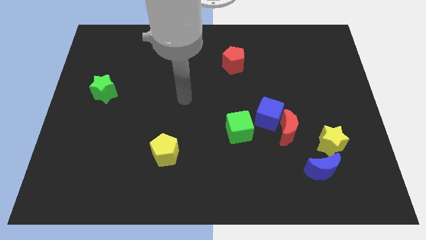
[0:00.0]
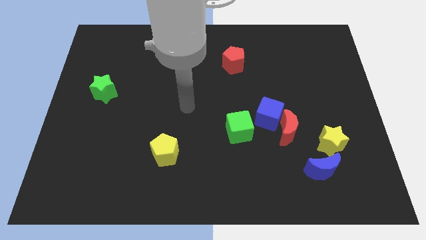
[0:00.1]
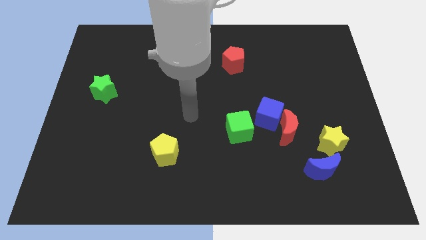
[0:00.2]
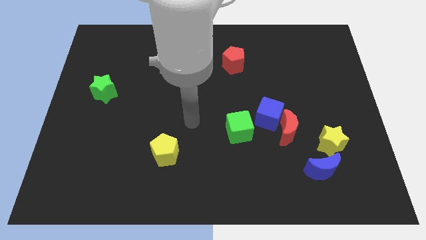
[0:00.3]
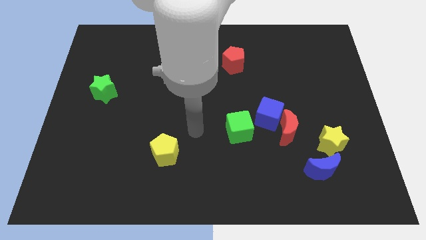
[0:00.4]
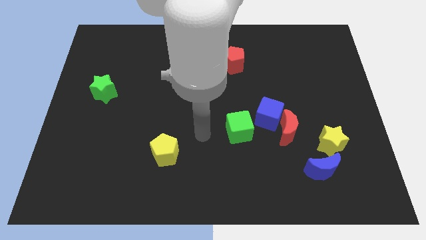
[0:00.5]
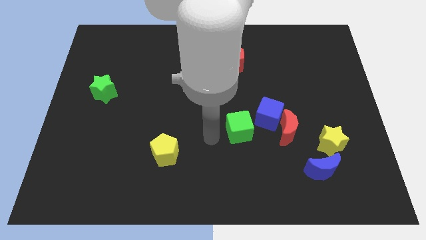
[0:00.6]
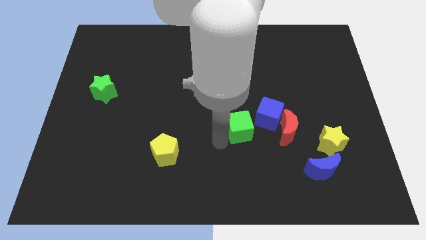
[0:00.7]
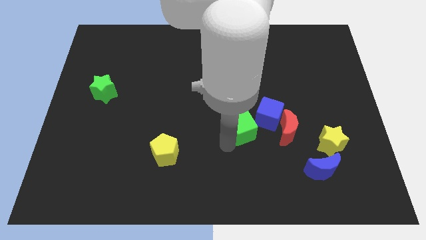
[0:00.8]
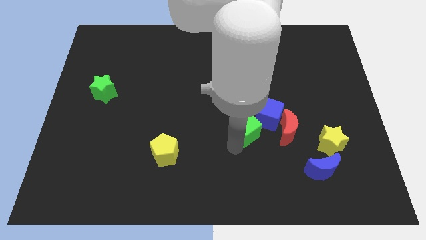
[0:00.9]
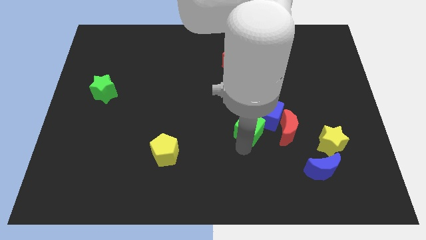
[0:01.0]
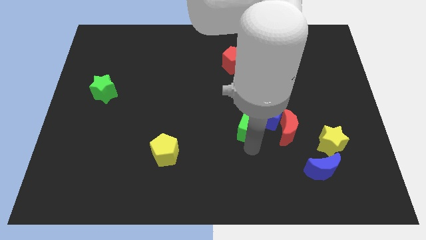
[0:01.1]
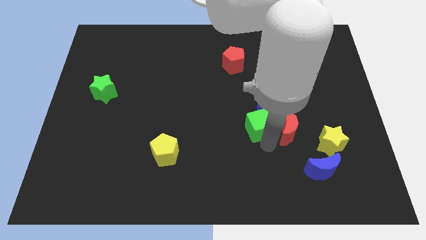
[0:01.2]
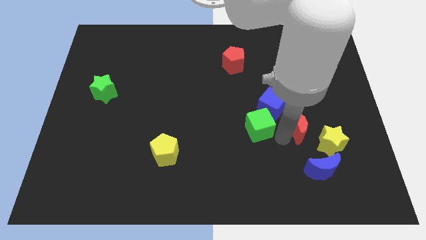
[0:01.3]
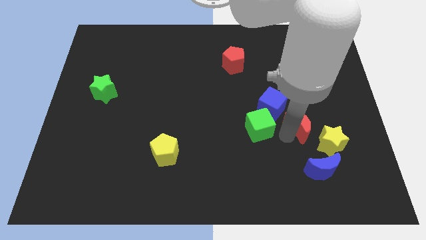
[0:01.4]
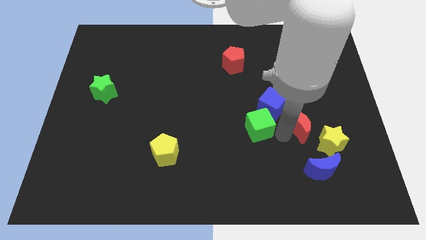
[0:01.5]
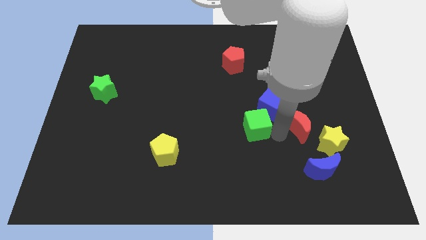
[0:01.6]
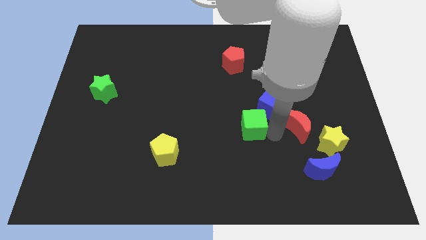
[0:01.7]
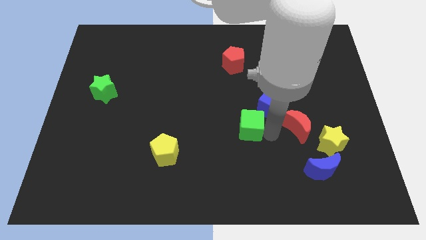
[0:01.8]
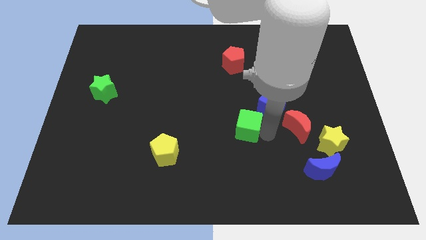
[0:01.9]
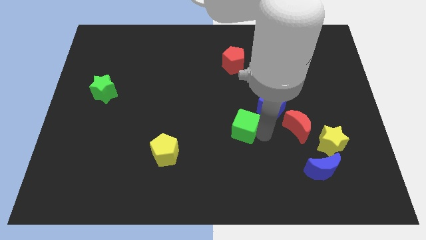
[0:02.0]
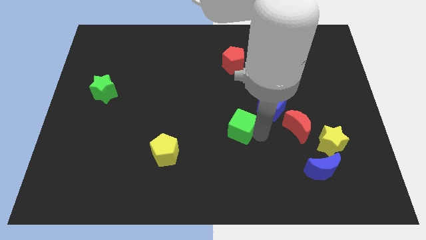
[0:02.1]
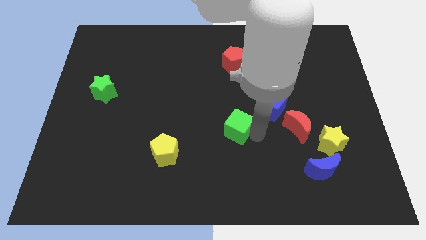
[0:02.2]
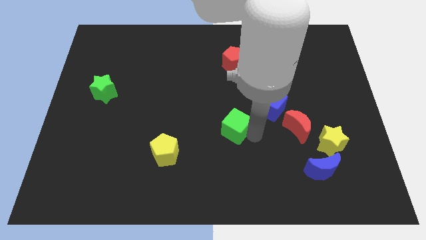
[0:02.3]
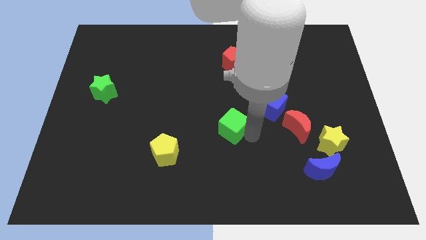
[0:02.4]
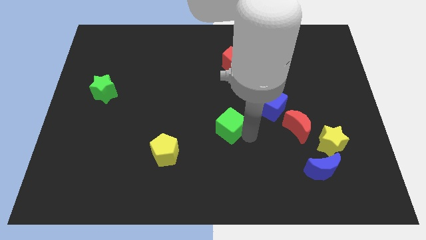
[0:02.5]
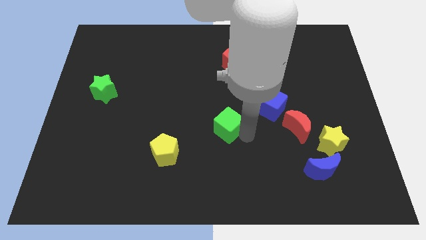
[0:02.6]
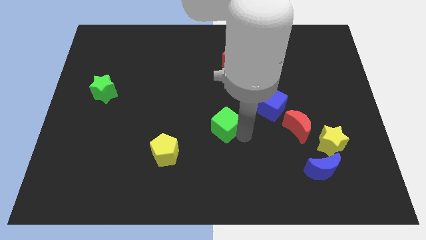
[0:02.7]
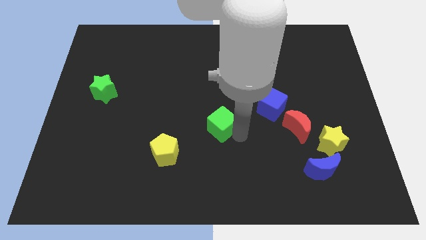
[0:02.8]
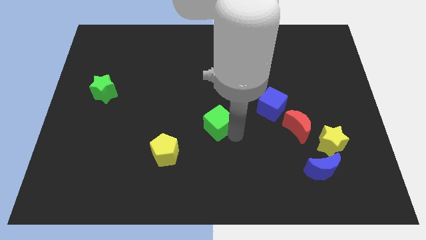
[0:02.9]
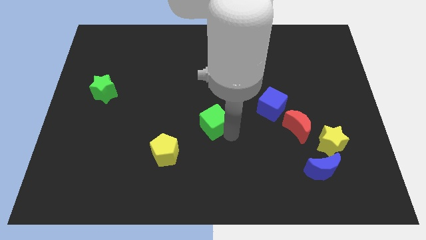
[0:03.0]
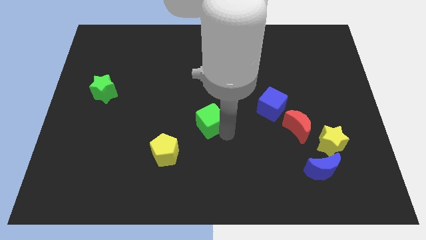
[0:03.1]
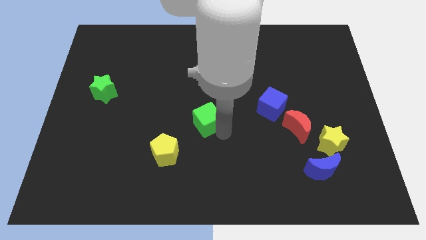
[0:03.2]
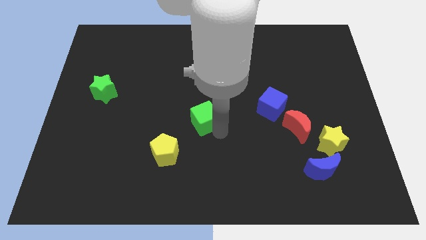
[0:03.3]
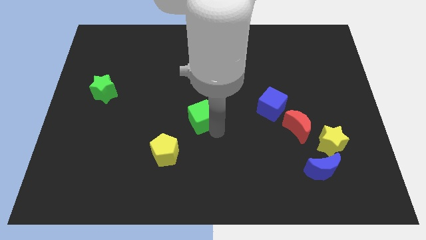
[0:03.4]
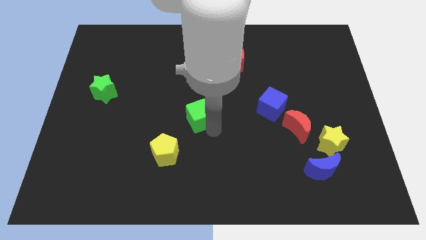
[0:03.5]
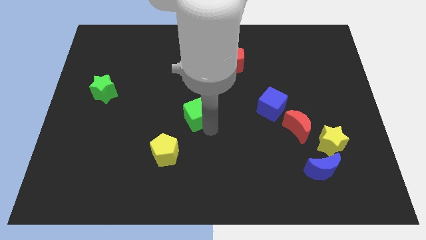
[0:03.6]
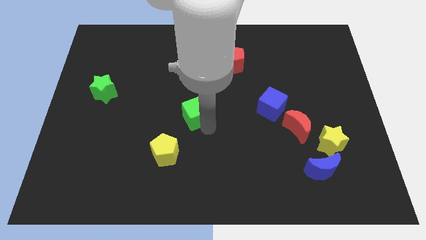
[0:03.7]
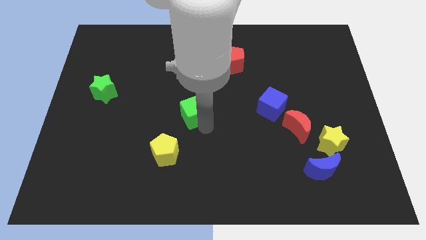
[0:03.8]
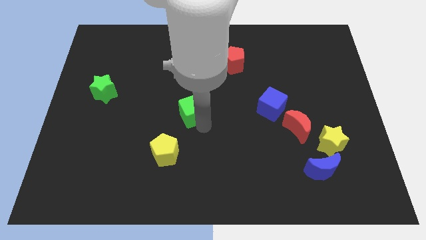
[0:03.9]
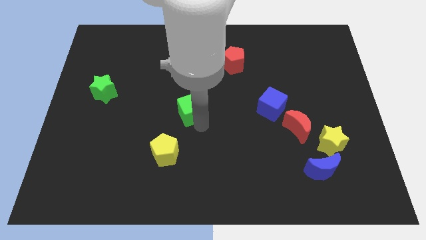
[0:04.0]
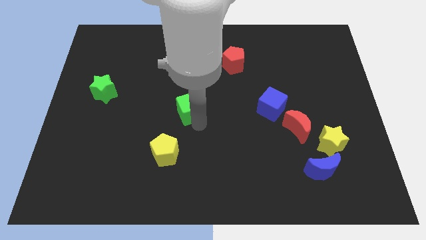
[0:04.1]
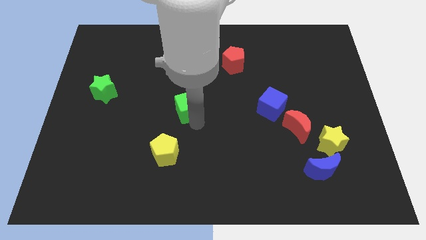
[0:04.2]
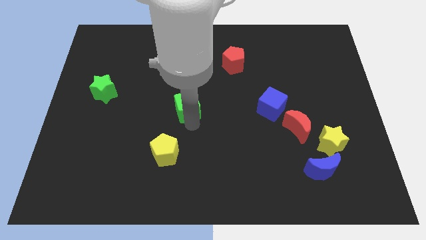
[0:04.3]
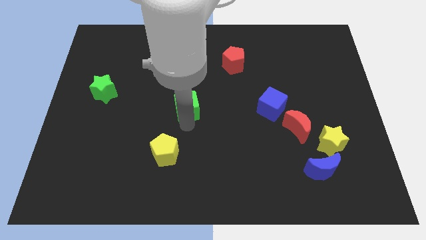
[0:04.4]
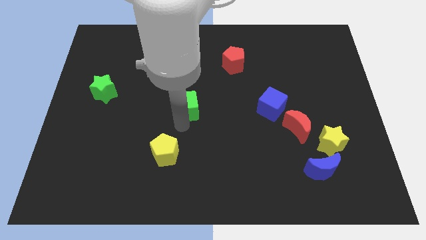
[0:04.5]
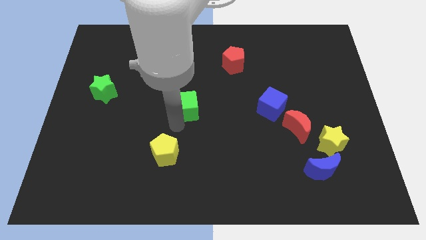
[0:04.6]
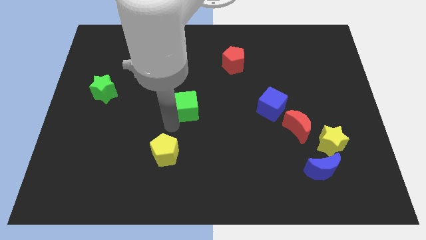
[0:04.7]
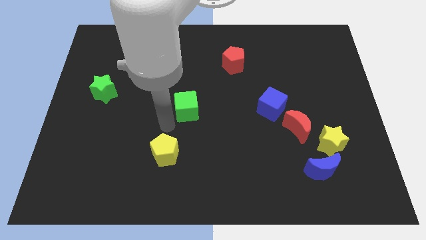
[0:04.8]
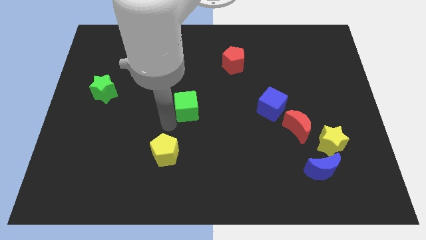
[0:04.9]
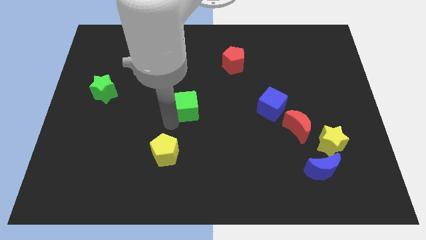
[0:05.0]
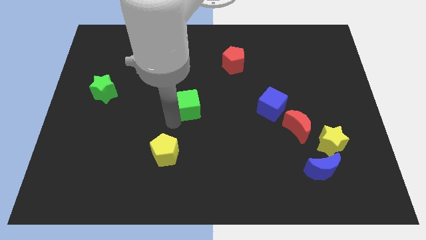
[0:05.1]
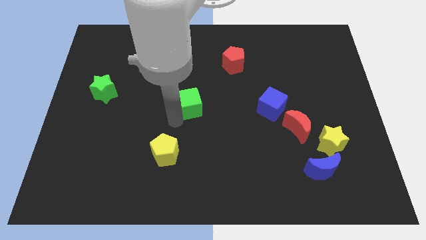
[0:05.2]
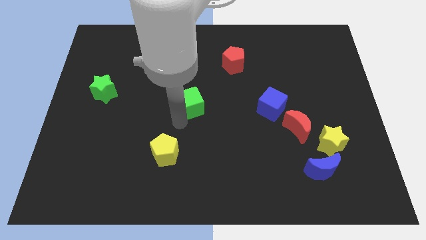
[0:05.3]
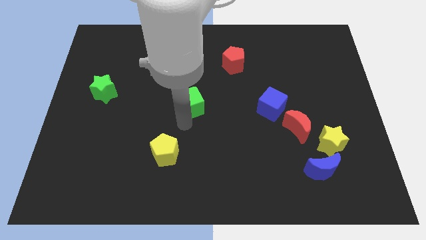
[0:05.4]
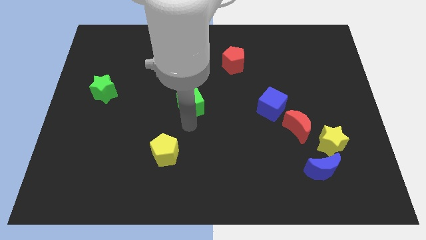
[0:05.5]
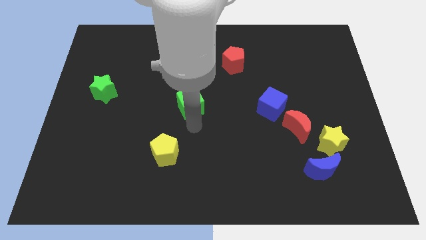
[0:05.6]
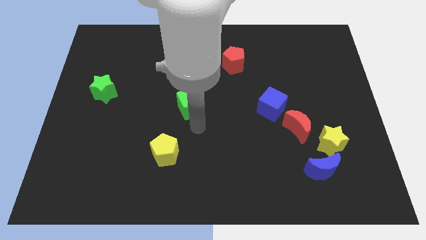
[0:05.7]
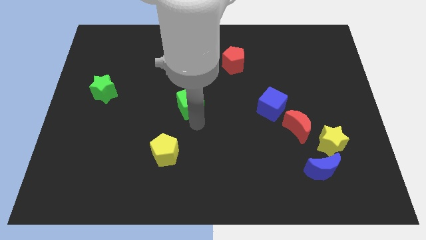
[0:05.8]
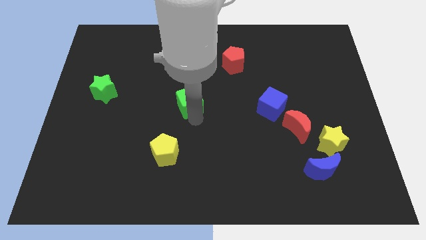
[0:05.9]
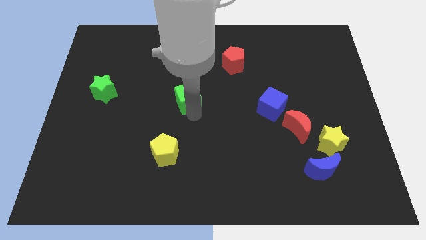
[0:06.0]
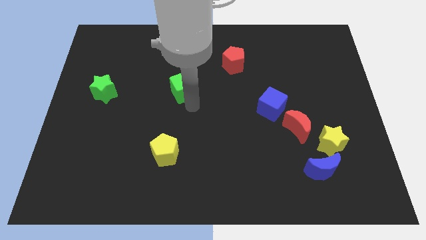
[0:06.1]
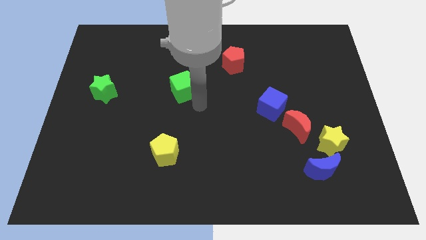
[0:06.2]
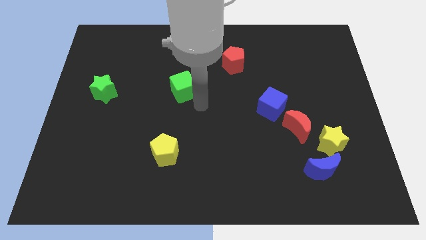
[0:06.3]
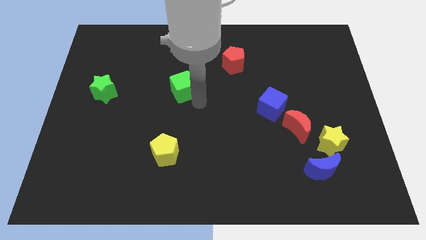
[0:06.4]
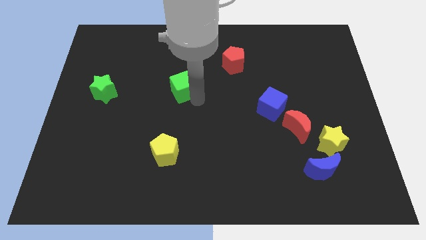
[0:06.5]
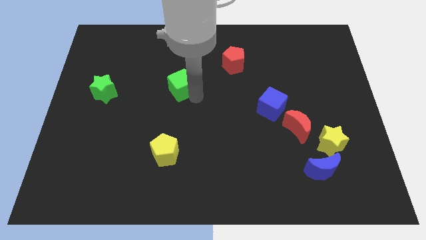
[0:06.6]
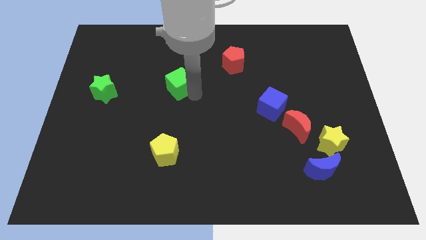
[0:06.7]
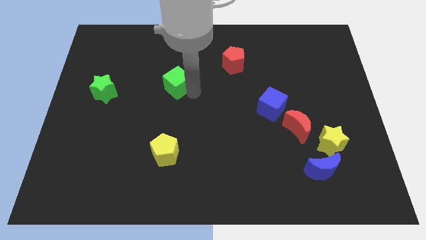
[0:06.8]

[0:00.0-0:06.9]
move the green cube upwards and to the left diagonally

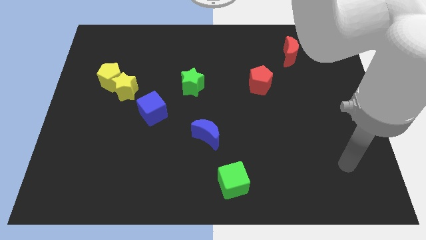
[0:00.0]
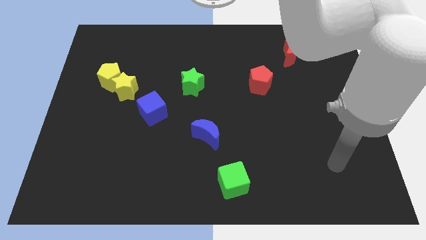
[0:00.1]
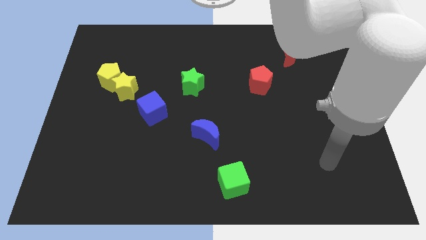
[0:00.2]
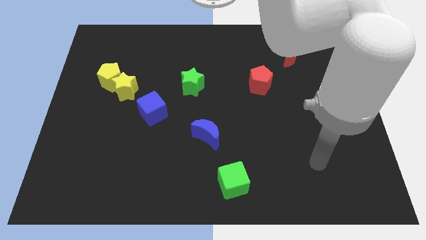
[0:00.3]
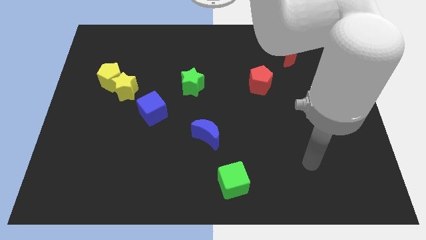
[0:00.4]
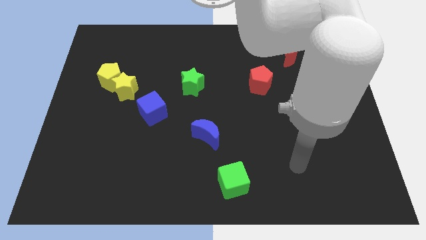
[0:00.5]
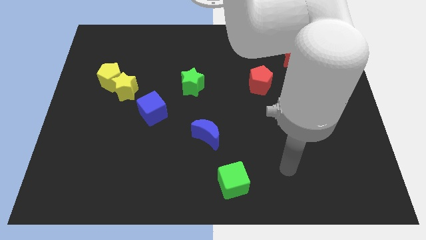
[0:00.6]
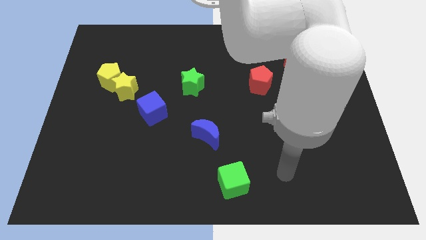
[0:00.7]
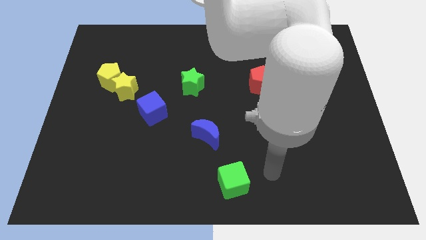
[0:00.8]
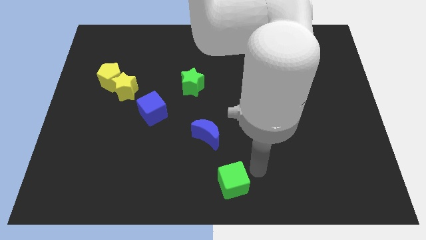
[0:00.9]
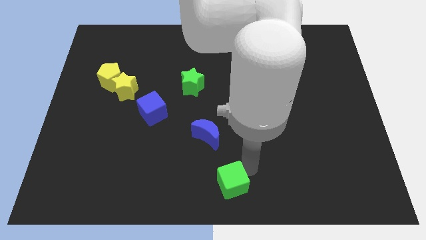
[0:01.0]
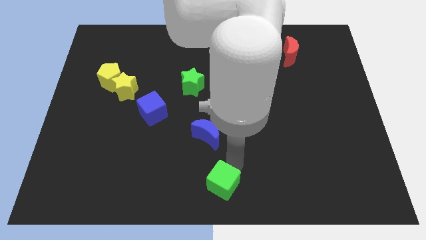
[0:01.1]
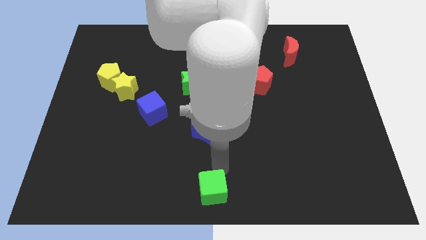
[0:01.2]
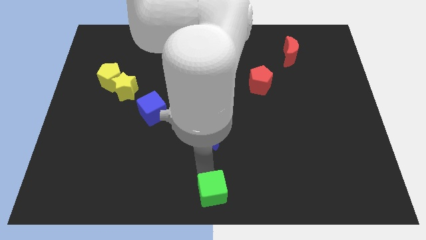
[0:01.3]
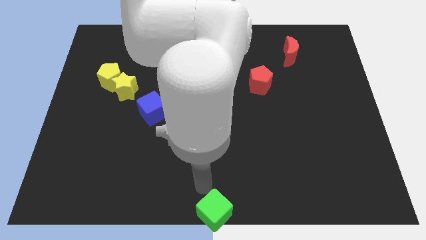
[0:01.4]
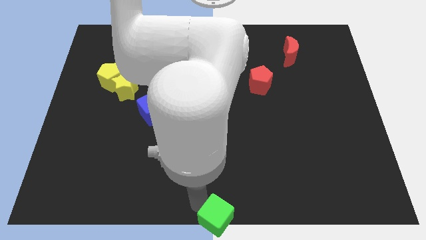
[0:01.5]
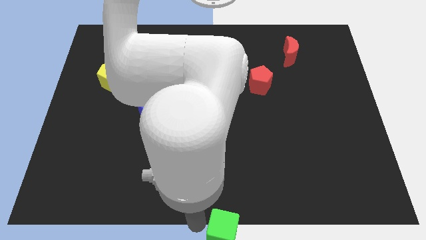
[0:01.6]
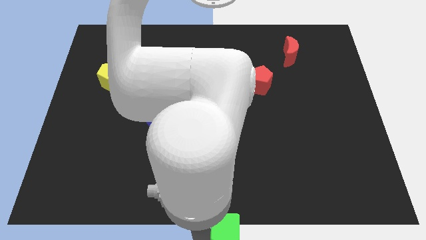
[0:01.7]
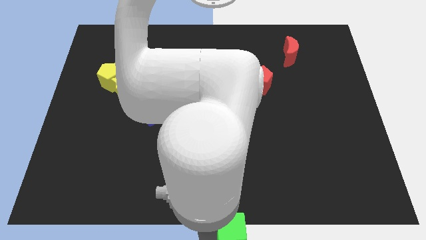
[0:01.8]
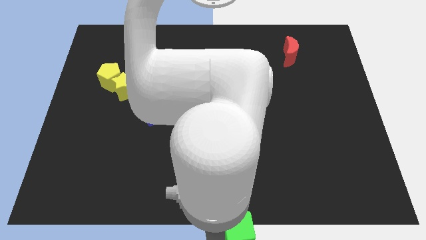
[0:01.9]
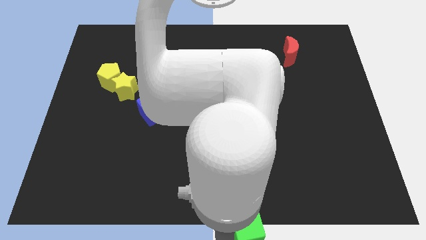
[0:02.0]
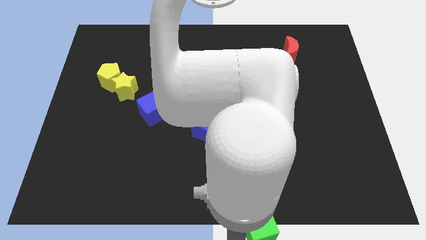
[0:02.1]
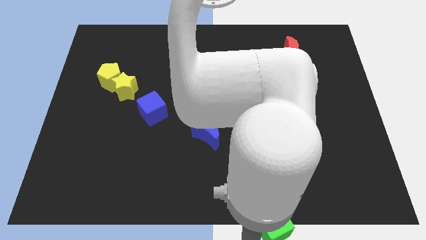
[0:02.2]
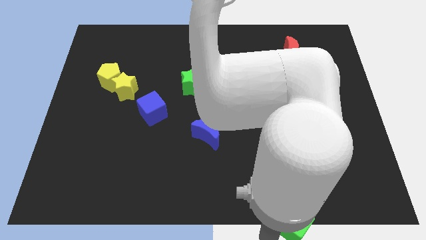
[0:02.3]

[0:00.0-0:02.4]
move the green cube somewhat to the right
